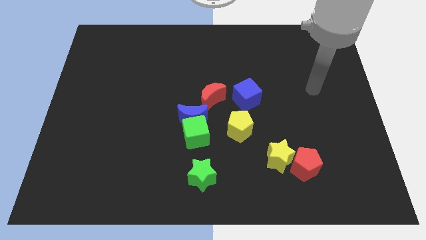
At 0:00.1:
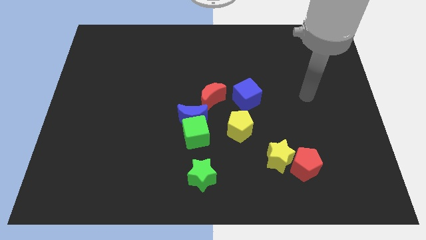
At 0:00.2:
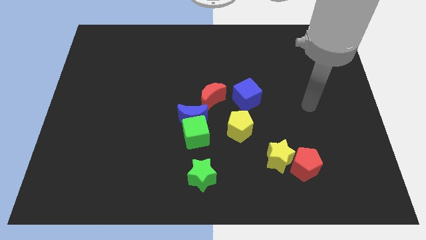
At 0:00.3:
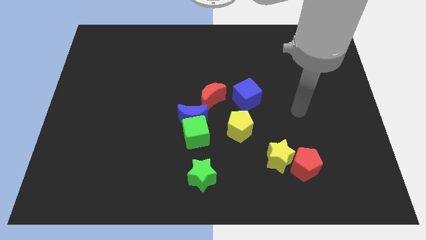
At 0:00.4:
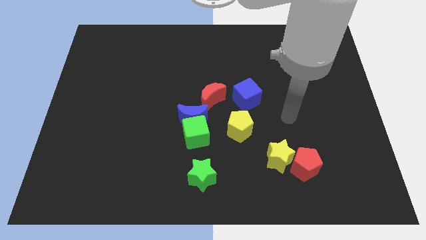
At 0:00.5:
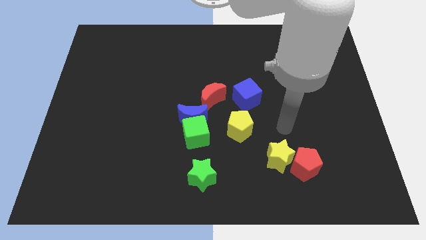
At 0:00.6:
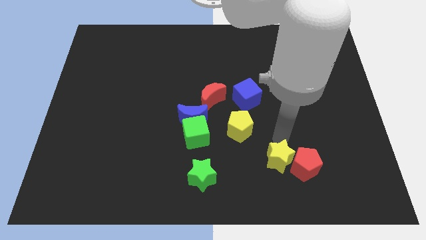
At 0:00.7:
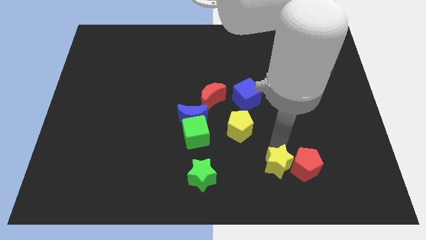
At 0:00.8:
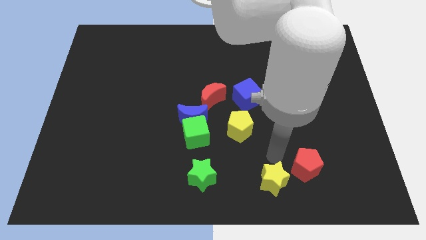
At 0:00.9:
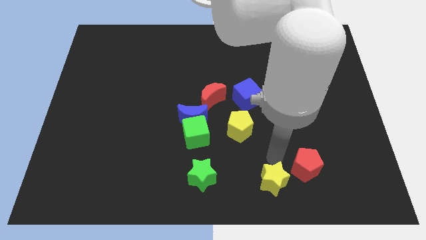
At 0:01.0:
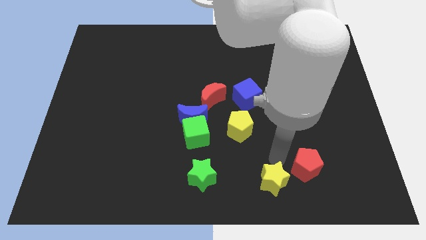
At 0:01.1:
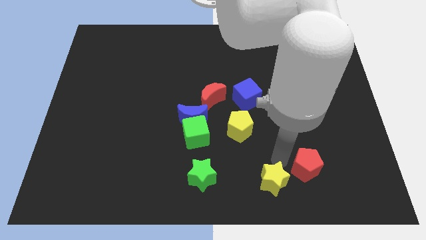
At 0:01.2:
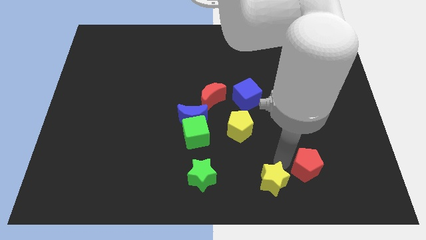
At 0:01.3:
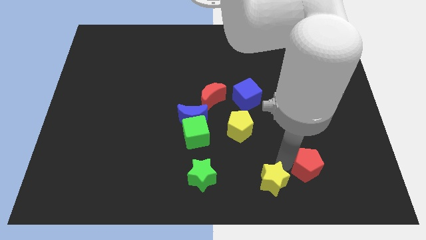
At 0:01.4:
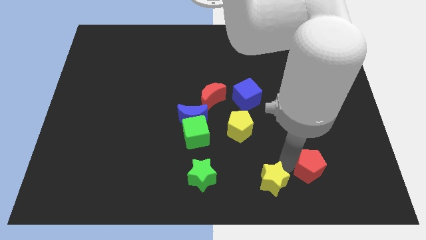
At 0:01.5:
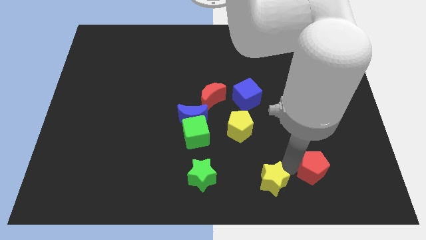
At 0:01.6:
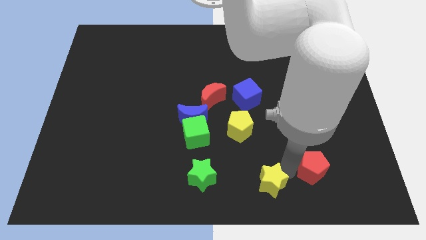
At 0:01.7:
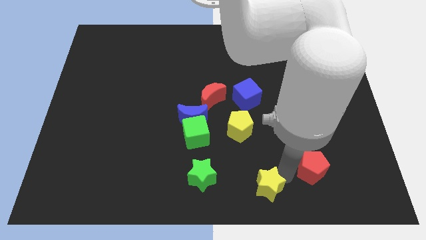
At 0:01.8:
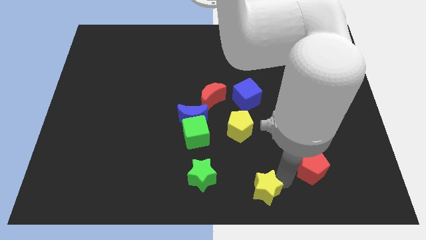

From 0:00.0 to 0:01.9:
pull the red pentagon apart from the yellow star

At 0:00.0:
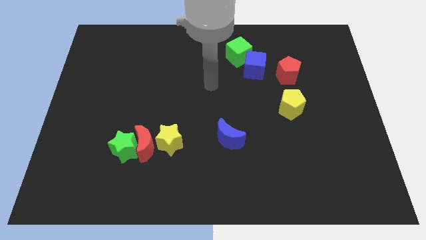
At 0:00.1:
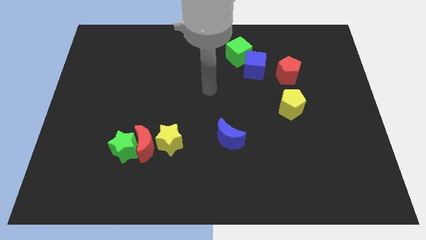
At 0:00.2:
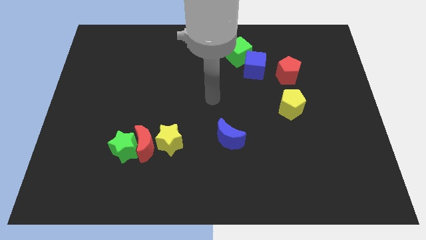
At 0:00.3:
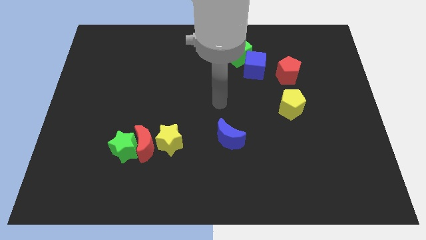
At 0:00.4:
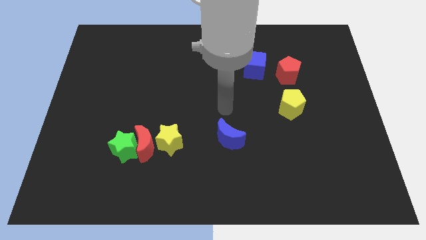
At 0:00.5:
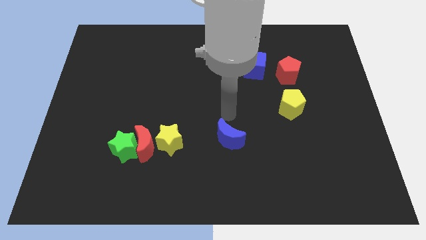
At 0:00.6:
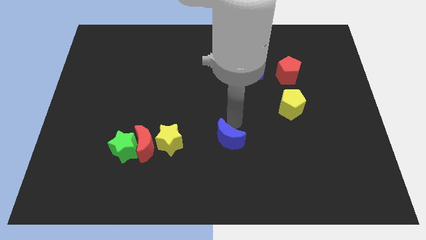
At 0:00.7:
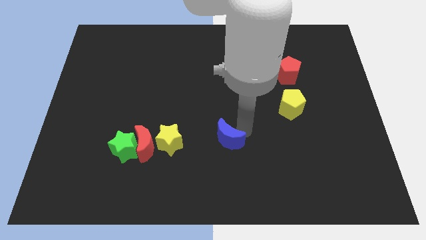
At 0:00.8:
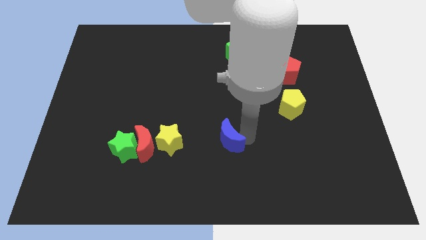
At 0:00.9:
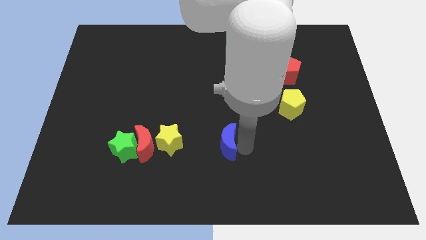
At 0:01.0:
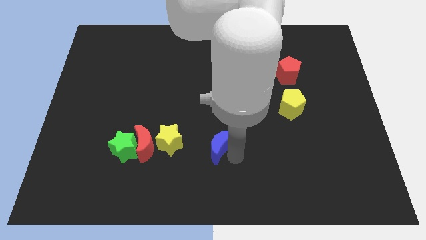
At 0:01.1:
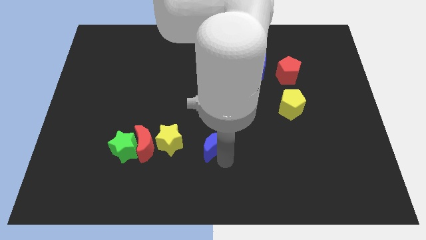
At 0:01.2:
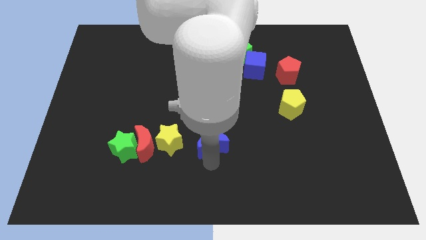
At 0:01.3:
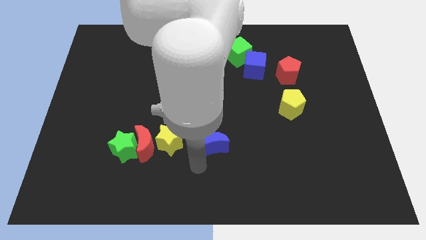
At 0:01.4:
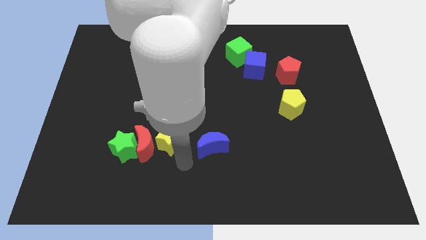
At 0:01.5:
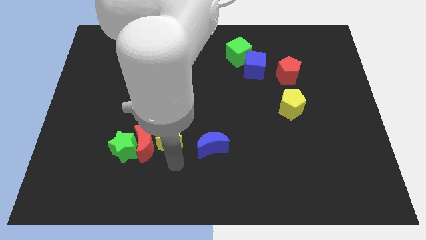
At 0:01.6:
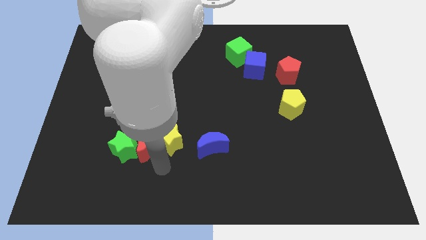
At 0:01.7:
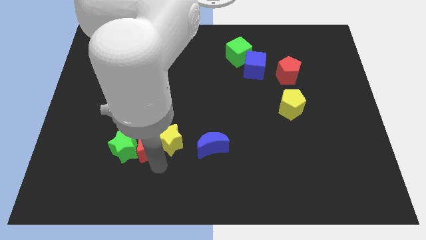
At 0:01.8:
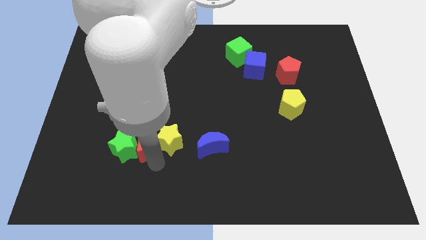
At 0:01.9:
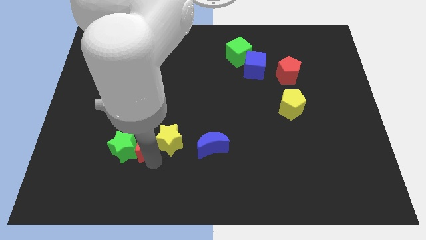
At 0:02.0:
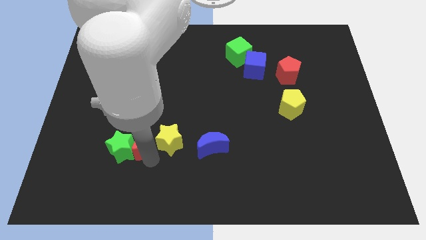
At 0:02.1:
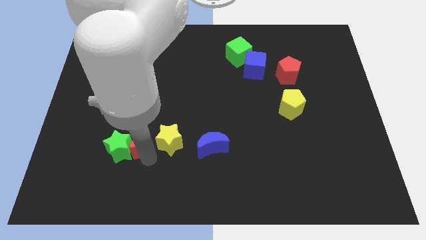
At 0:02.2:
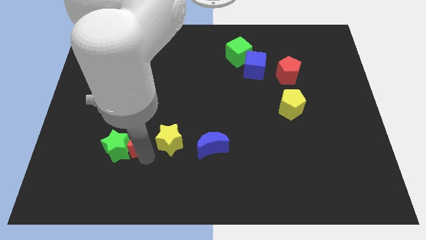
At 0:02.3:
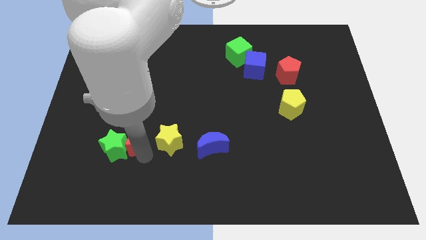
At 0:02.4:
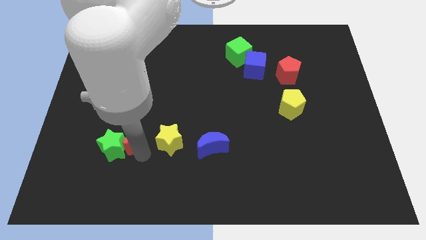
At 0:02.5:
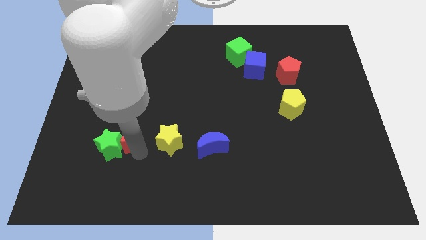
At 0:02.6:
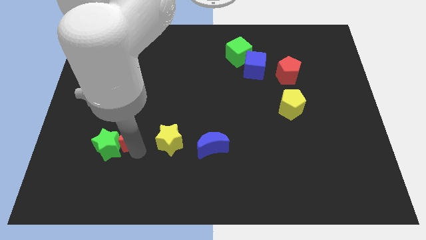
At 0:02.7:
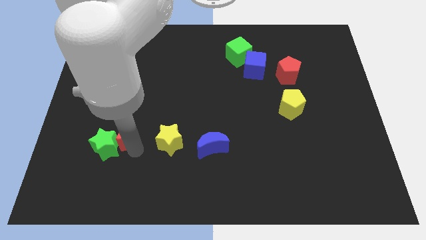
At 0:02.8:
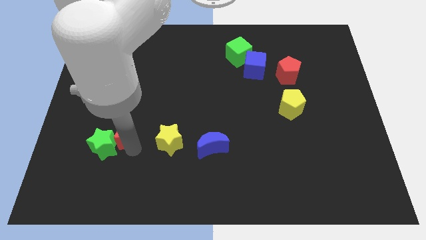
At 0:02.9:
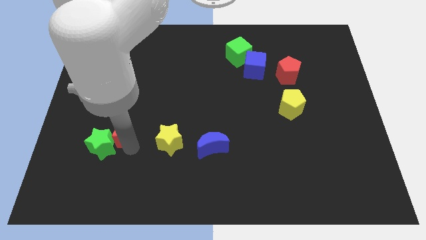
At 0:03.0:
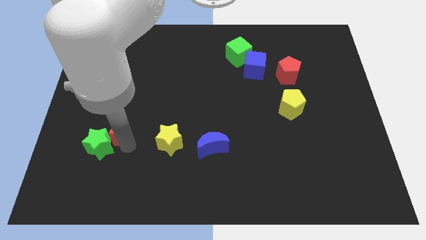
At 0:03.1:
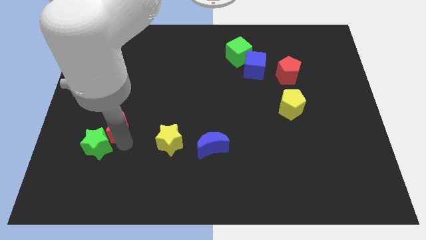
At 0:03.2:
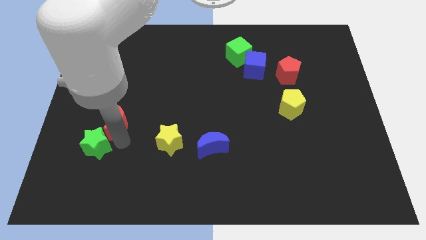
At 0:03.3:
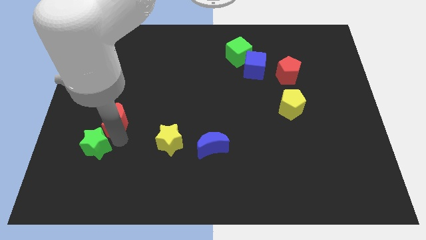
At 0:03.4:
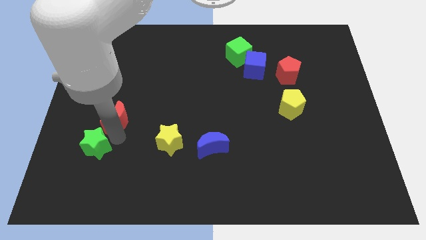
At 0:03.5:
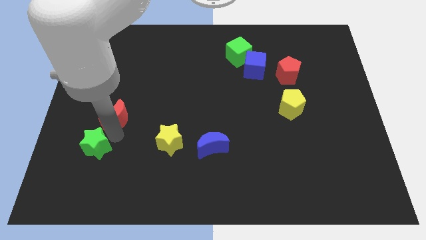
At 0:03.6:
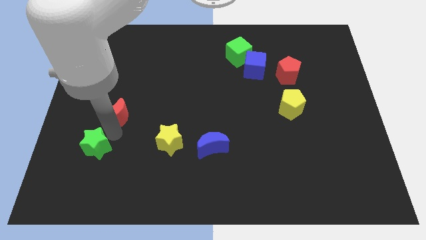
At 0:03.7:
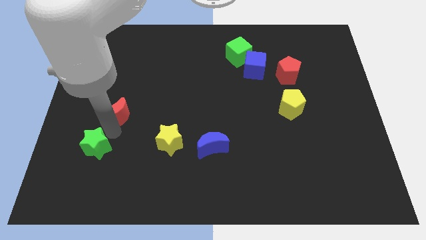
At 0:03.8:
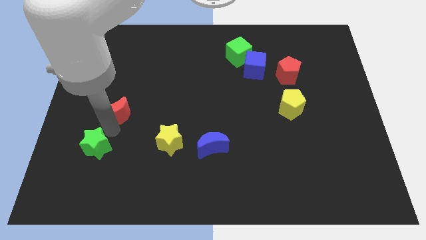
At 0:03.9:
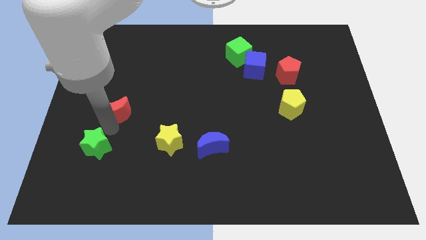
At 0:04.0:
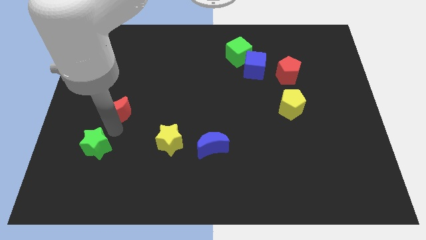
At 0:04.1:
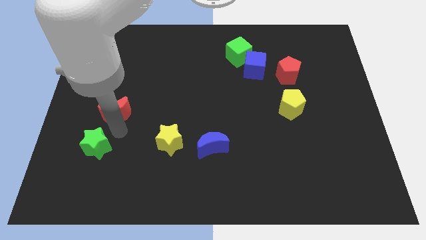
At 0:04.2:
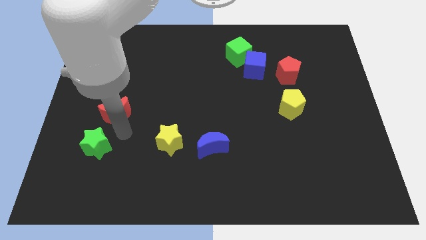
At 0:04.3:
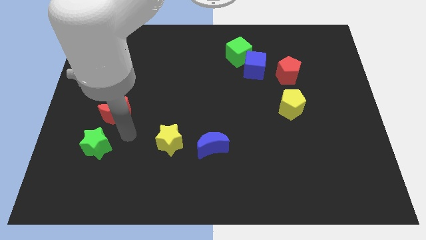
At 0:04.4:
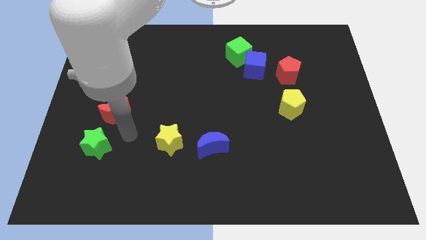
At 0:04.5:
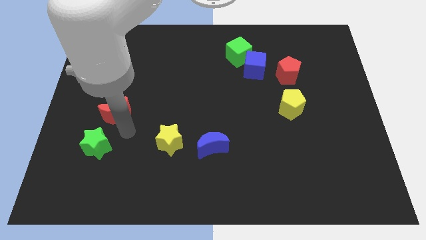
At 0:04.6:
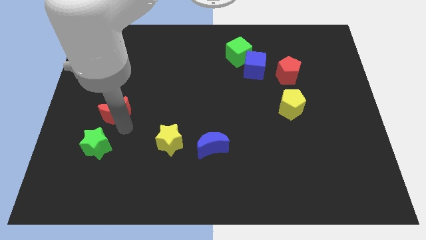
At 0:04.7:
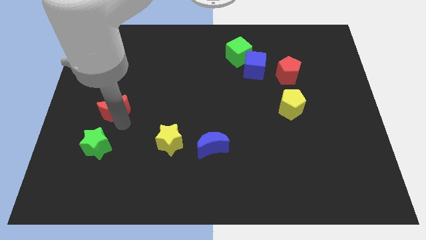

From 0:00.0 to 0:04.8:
move the red moon away from the green star and yellow star

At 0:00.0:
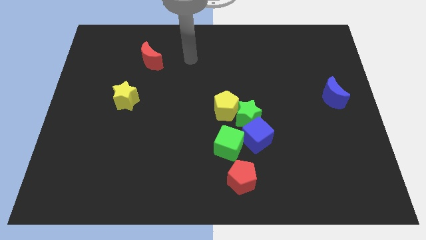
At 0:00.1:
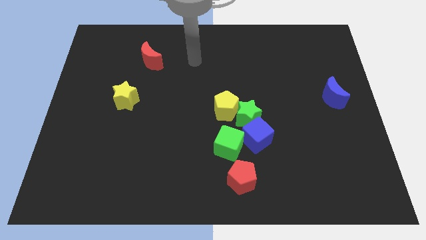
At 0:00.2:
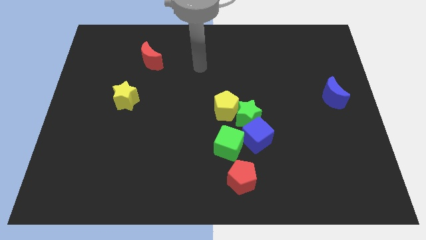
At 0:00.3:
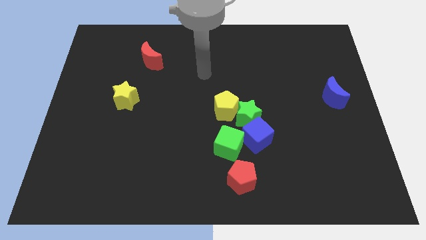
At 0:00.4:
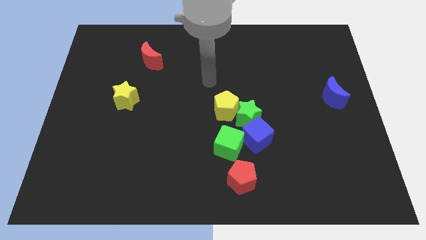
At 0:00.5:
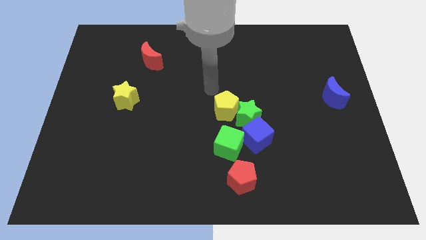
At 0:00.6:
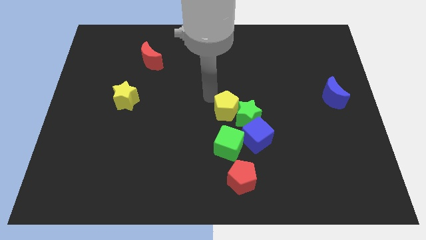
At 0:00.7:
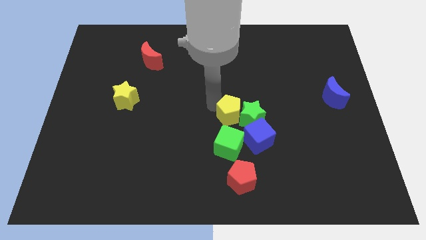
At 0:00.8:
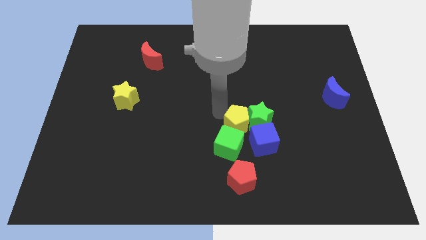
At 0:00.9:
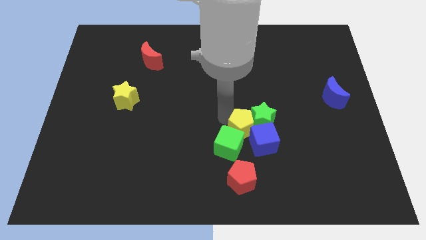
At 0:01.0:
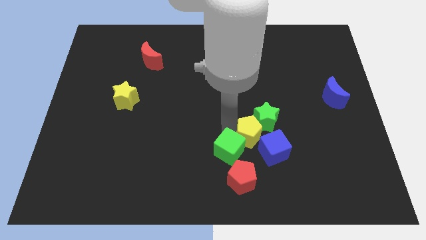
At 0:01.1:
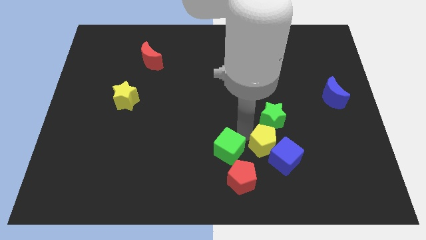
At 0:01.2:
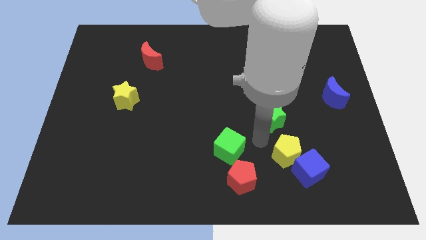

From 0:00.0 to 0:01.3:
pull the blue cube apart from the green star and green cube

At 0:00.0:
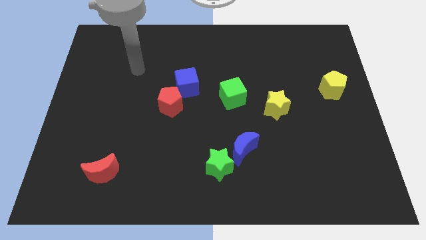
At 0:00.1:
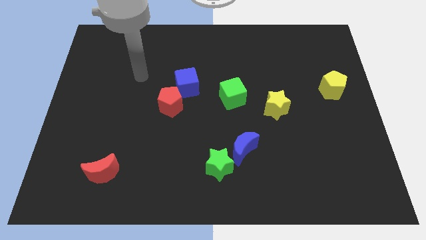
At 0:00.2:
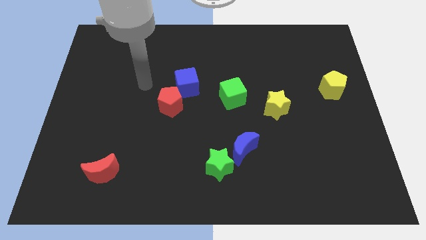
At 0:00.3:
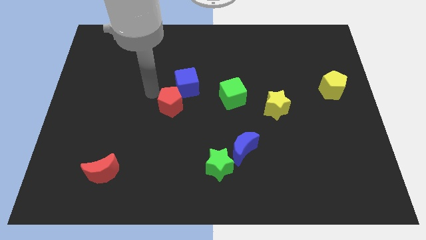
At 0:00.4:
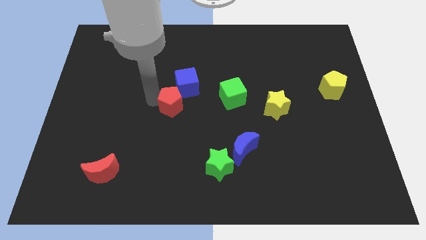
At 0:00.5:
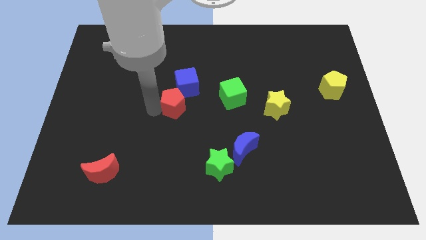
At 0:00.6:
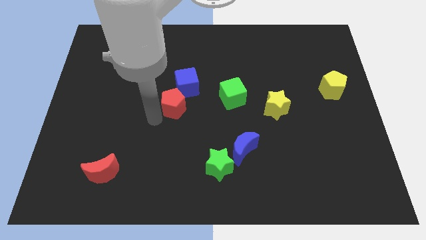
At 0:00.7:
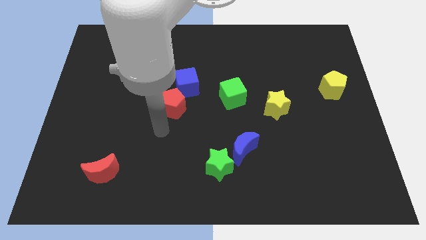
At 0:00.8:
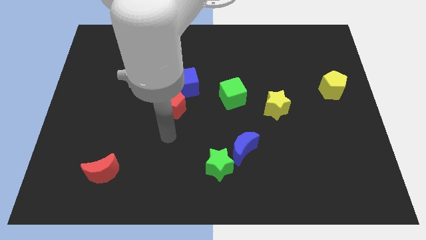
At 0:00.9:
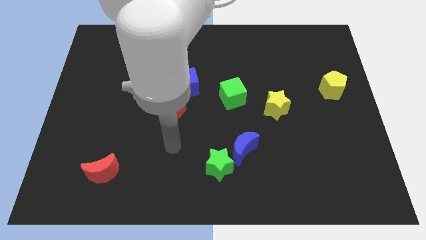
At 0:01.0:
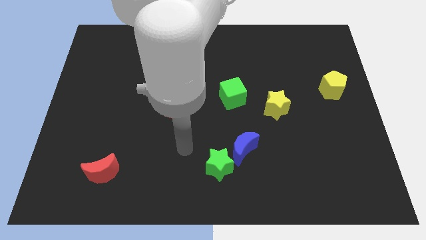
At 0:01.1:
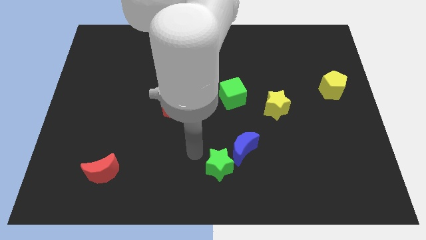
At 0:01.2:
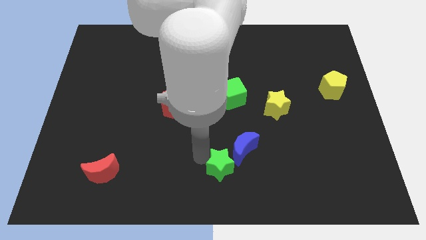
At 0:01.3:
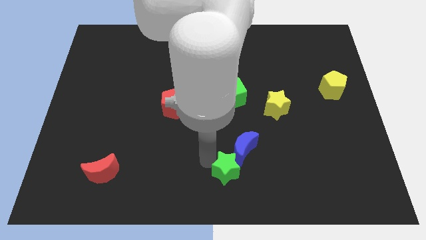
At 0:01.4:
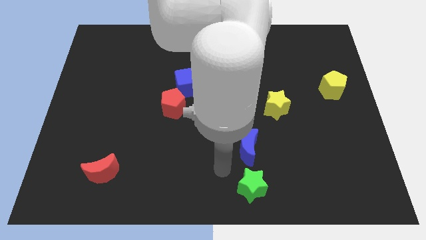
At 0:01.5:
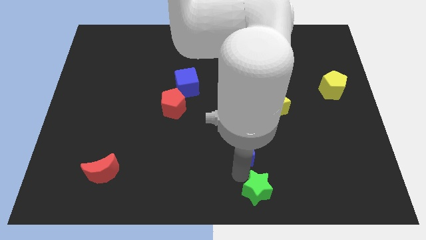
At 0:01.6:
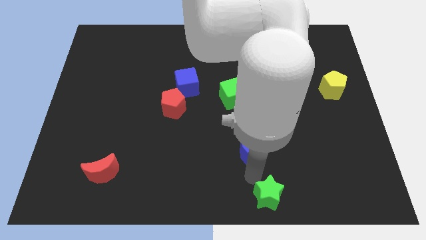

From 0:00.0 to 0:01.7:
pull the blue moon apart from the green star
